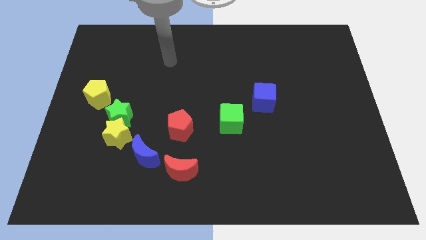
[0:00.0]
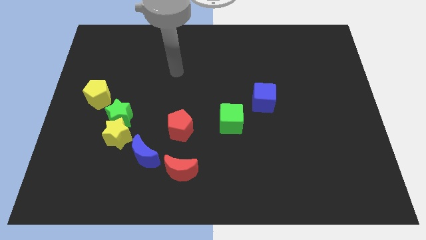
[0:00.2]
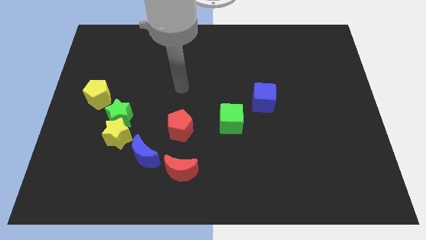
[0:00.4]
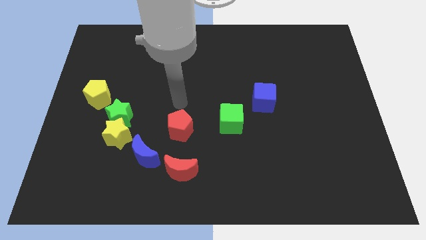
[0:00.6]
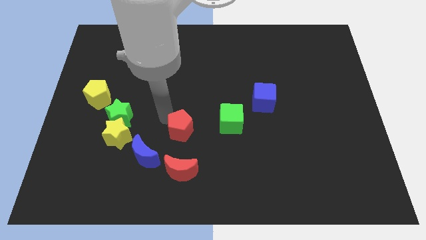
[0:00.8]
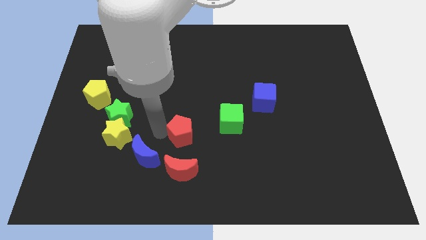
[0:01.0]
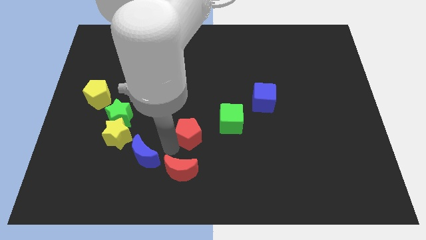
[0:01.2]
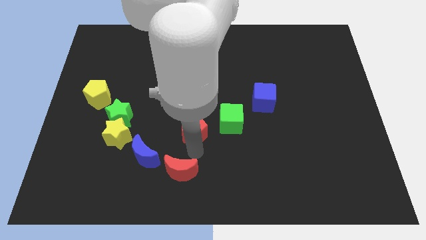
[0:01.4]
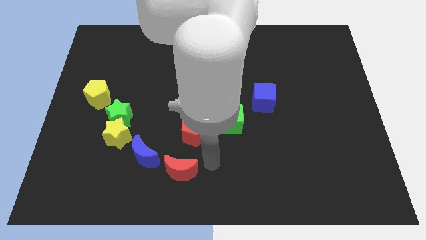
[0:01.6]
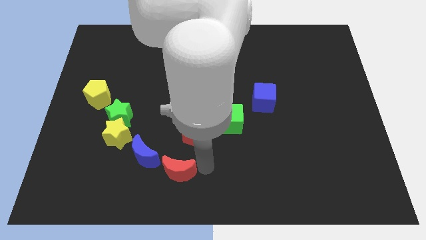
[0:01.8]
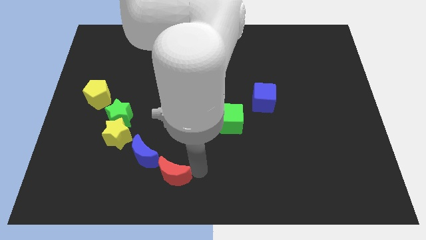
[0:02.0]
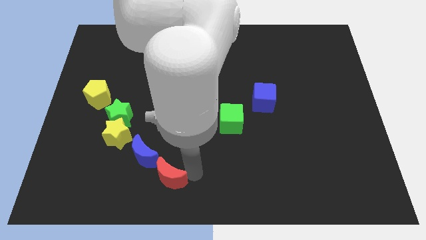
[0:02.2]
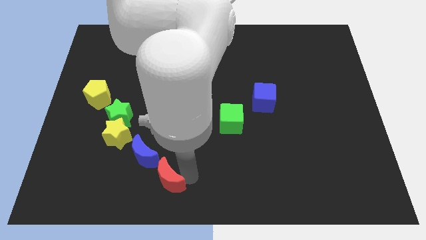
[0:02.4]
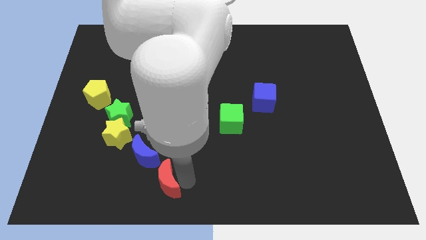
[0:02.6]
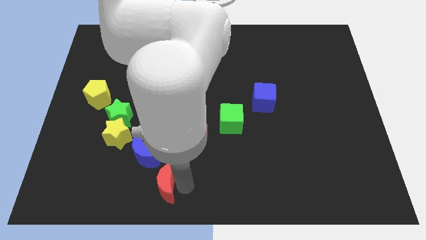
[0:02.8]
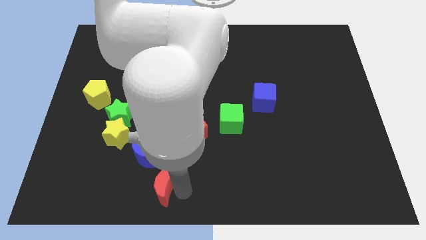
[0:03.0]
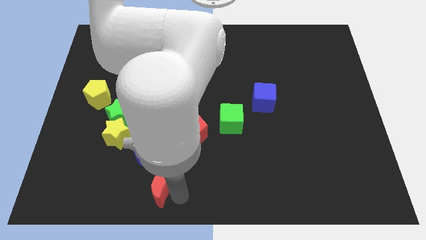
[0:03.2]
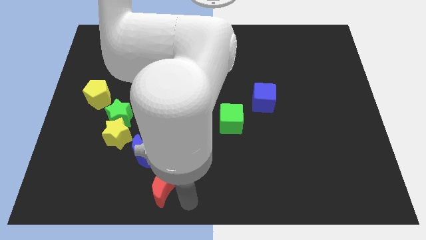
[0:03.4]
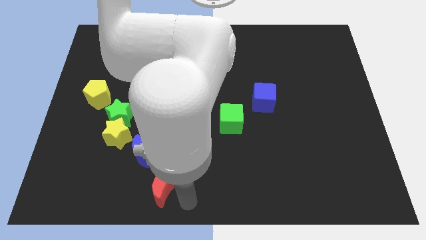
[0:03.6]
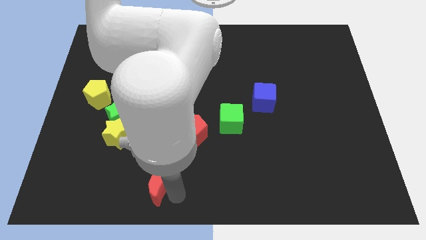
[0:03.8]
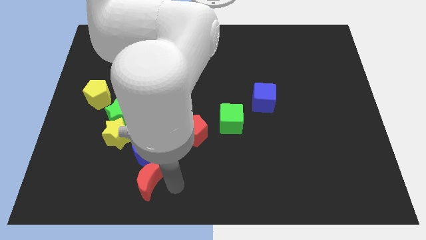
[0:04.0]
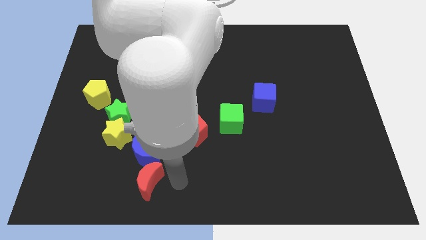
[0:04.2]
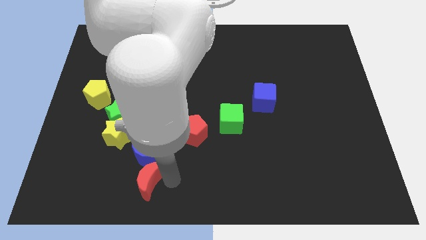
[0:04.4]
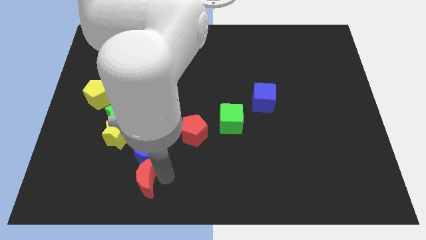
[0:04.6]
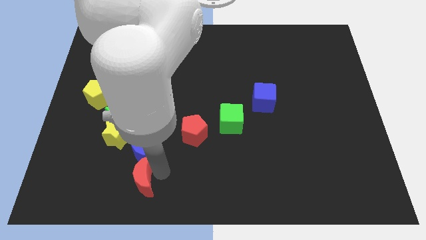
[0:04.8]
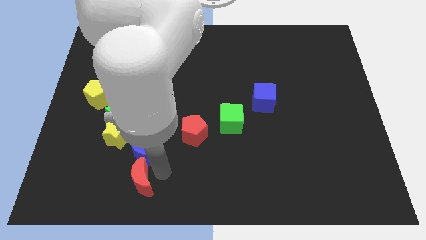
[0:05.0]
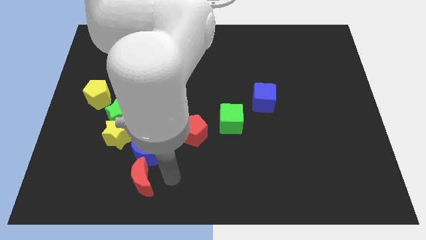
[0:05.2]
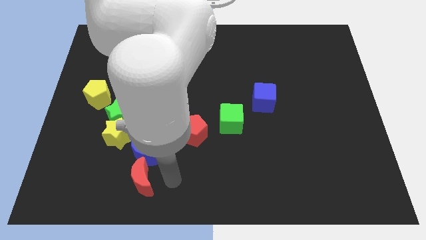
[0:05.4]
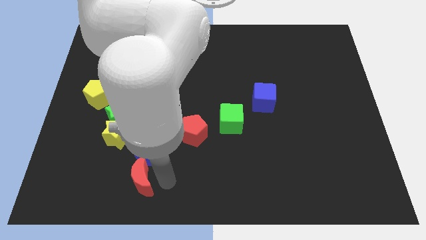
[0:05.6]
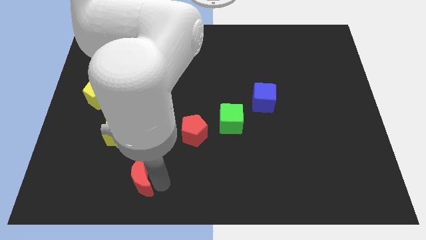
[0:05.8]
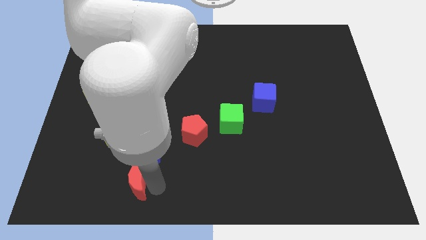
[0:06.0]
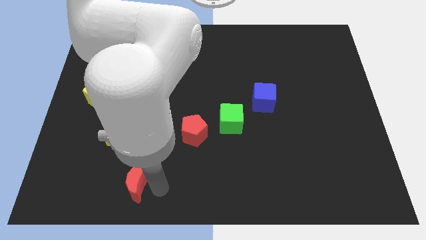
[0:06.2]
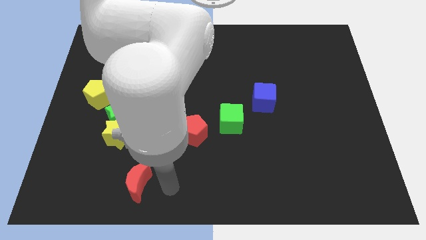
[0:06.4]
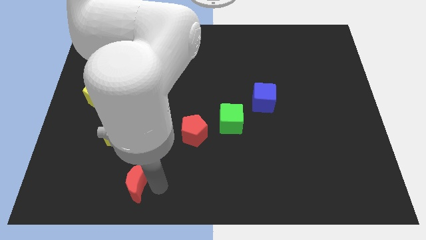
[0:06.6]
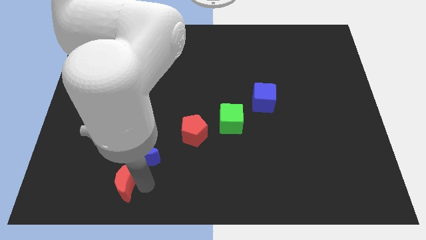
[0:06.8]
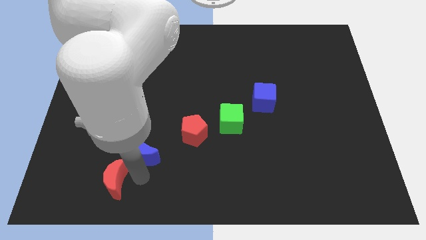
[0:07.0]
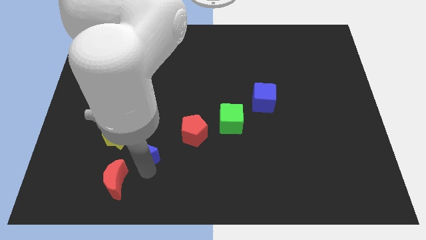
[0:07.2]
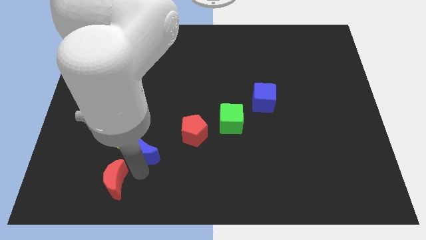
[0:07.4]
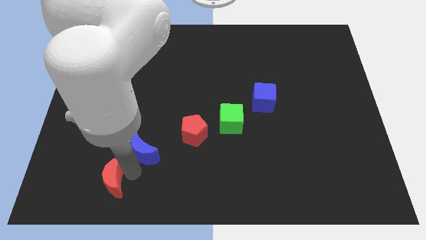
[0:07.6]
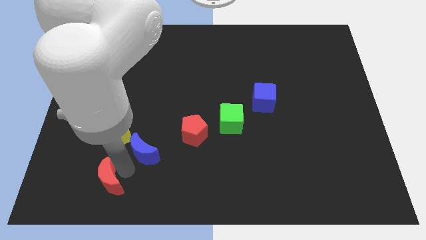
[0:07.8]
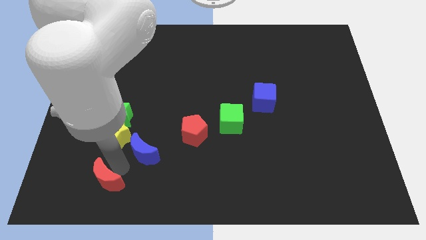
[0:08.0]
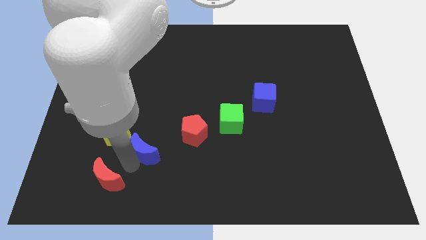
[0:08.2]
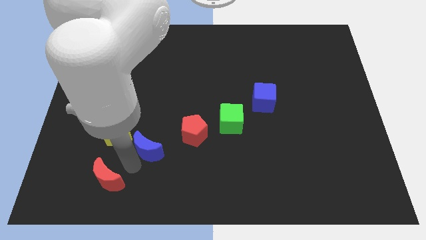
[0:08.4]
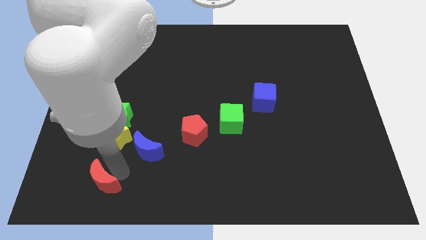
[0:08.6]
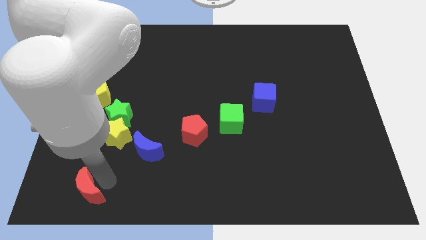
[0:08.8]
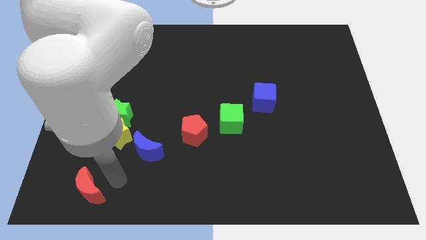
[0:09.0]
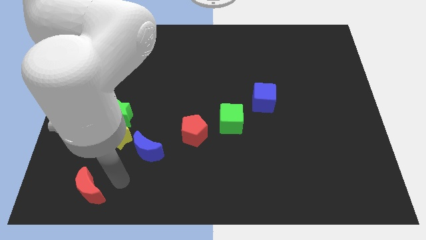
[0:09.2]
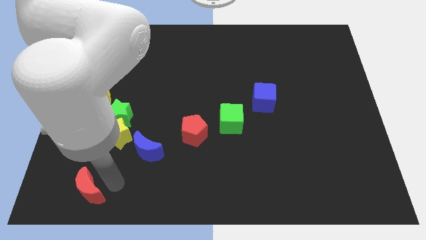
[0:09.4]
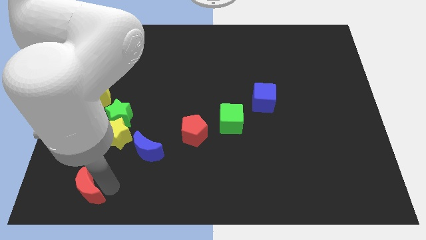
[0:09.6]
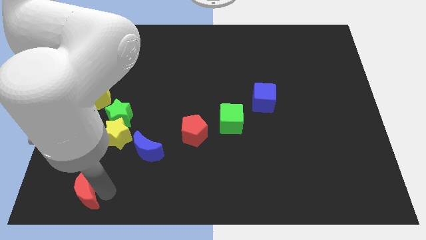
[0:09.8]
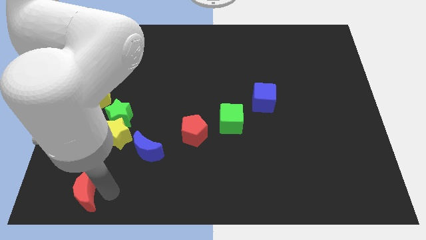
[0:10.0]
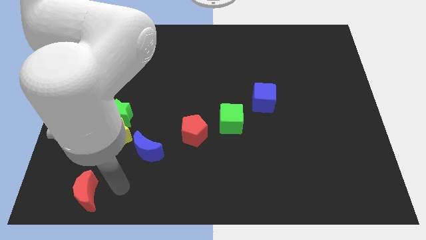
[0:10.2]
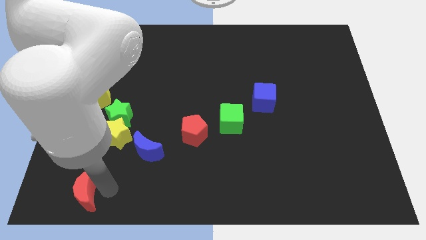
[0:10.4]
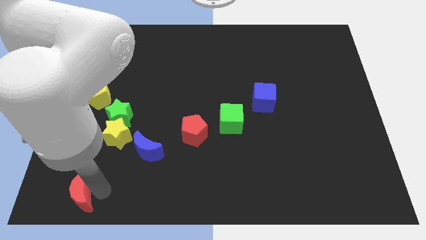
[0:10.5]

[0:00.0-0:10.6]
slide the red moon to the bottom left

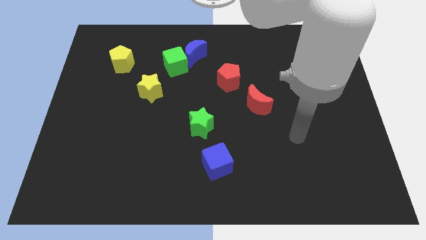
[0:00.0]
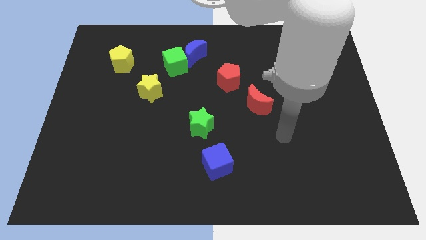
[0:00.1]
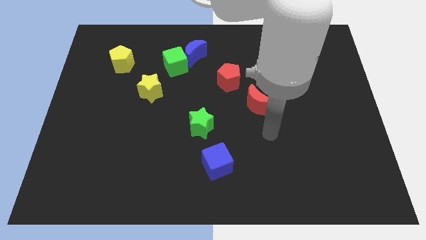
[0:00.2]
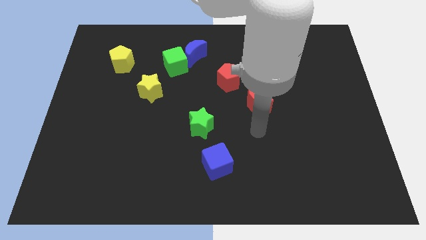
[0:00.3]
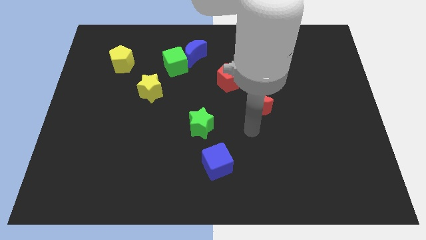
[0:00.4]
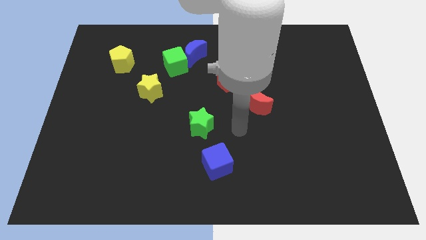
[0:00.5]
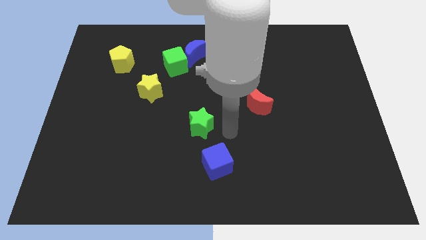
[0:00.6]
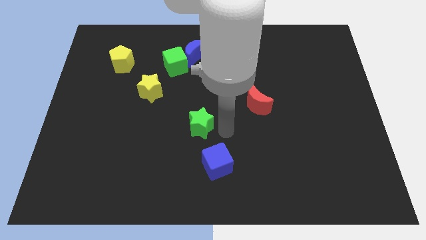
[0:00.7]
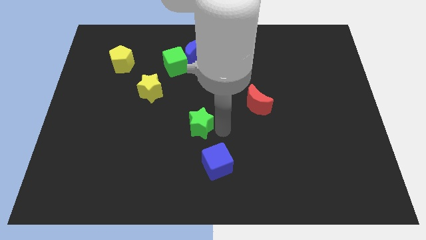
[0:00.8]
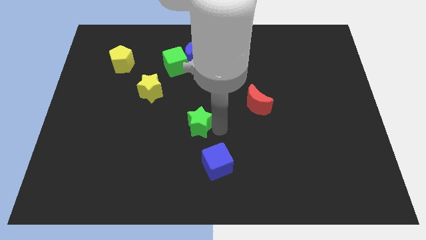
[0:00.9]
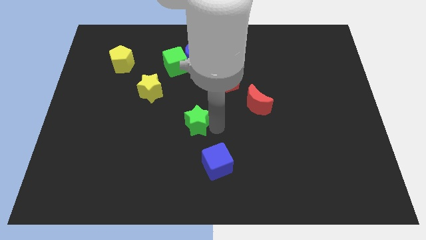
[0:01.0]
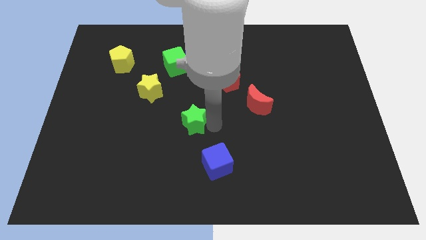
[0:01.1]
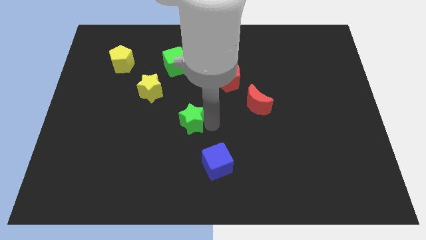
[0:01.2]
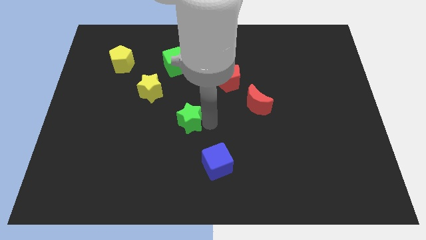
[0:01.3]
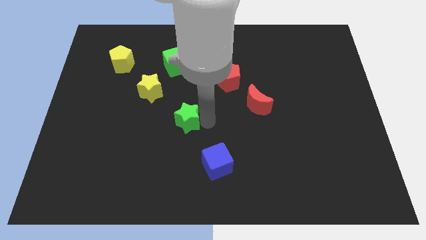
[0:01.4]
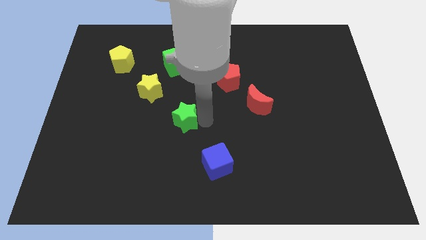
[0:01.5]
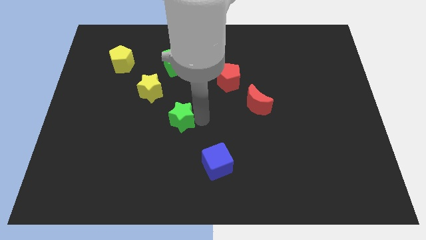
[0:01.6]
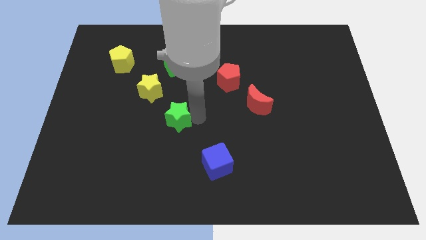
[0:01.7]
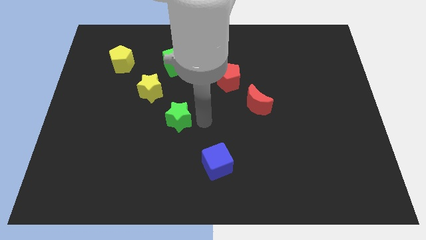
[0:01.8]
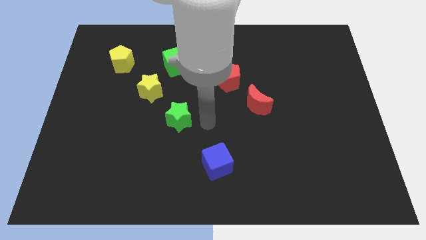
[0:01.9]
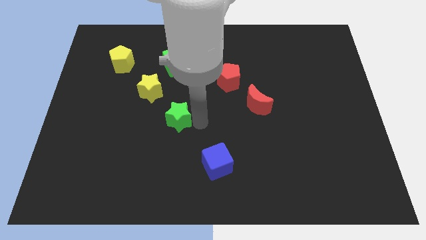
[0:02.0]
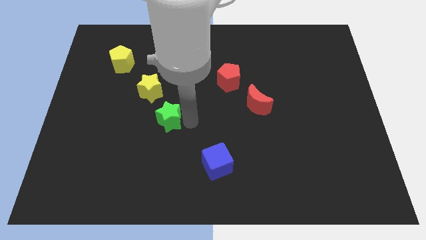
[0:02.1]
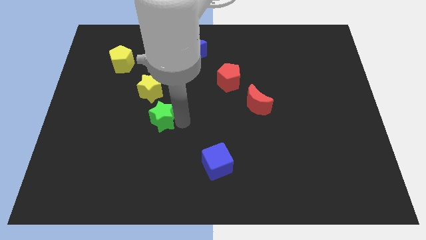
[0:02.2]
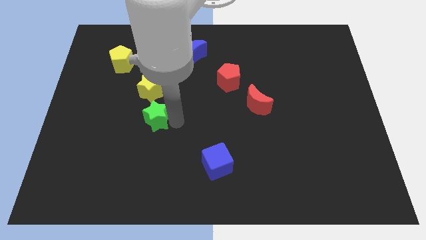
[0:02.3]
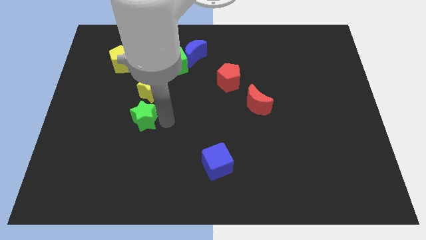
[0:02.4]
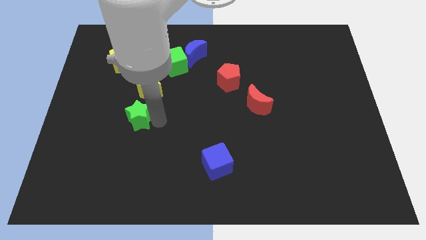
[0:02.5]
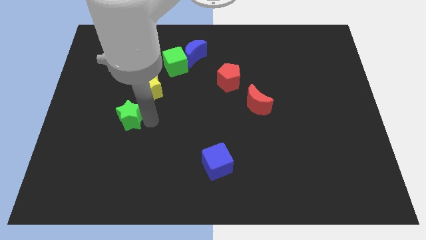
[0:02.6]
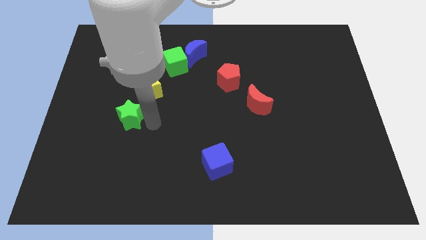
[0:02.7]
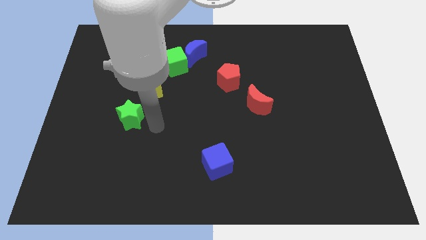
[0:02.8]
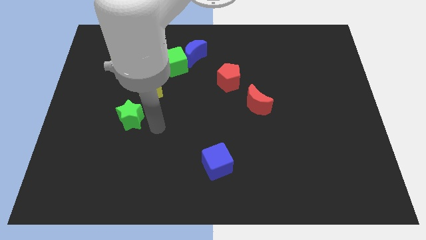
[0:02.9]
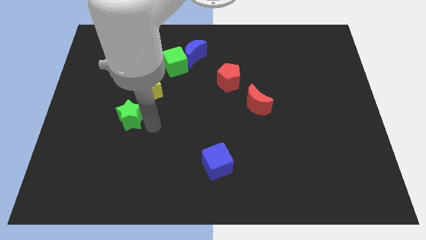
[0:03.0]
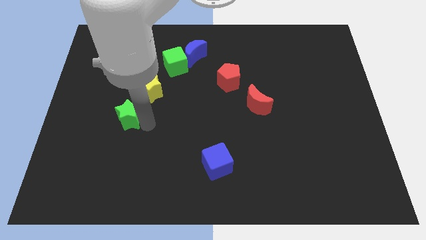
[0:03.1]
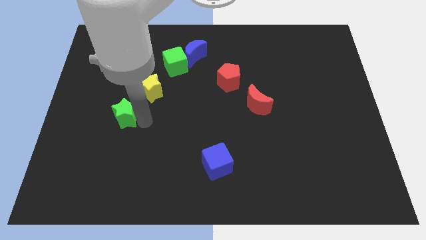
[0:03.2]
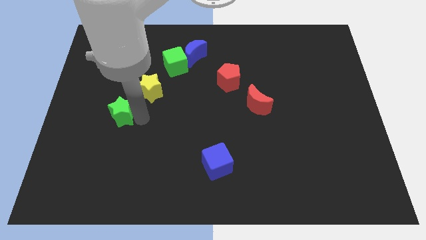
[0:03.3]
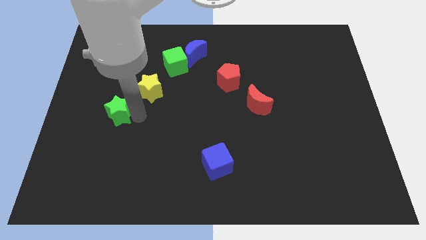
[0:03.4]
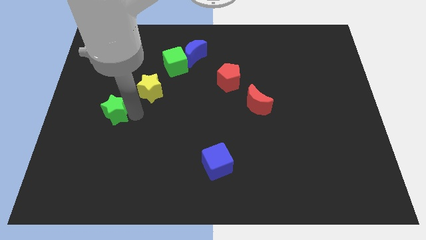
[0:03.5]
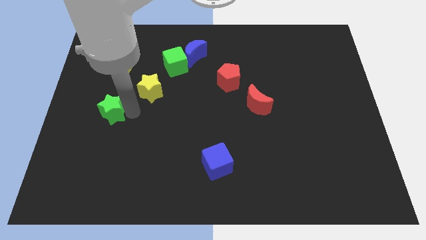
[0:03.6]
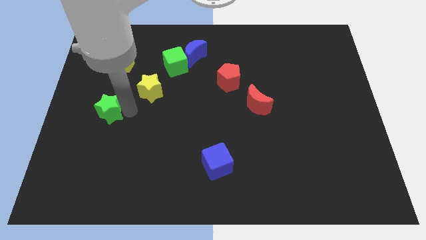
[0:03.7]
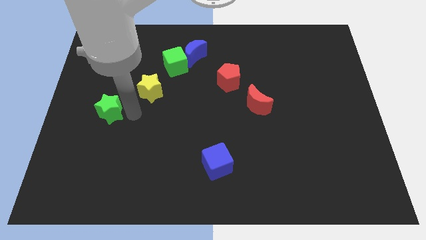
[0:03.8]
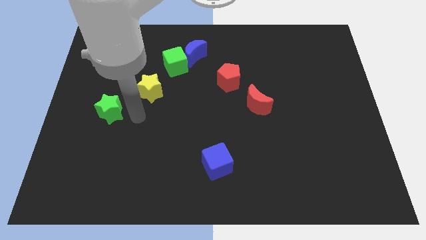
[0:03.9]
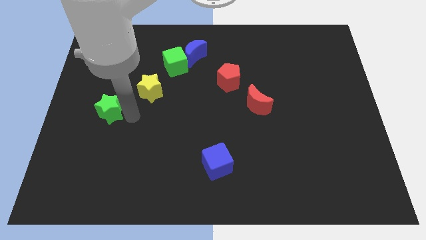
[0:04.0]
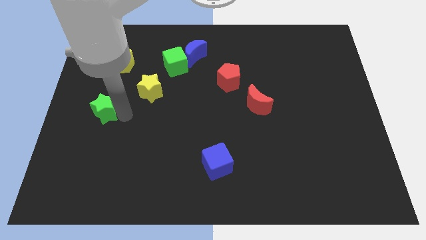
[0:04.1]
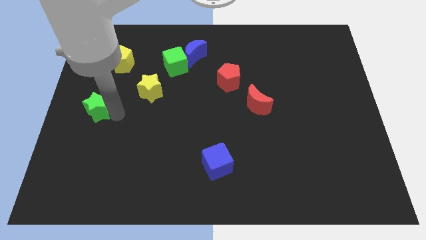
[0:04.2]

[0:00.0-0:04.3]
slide the green star to the left side
